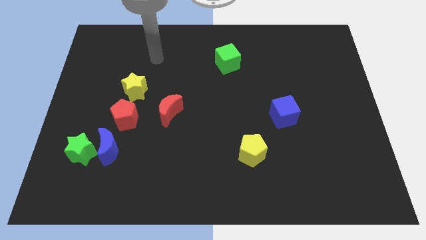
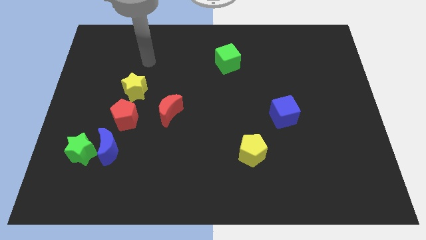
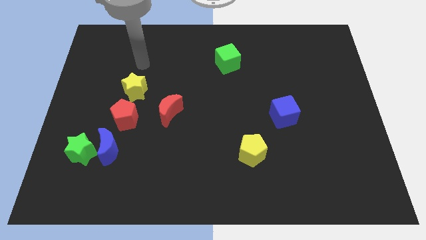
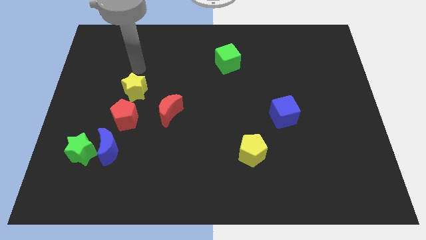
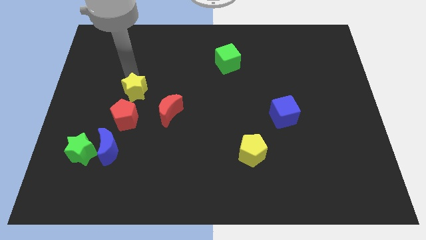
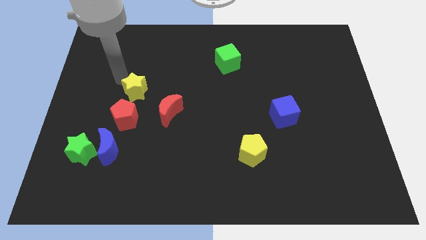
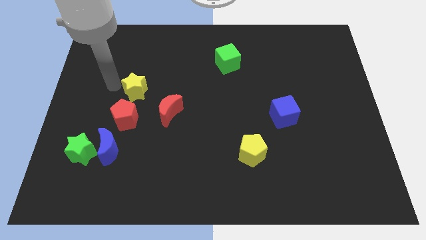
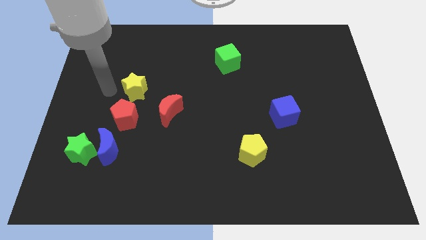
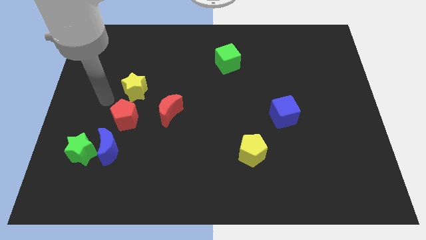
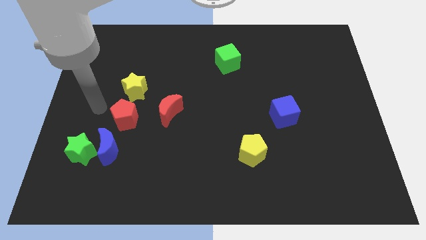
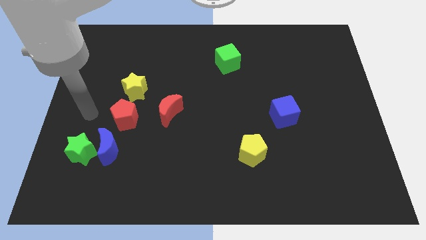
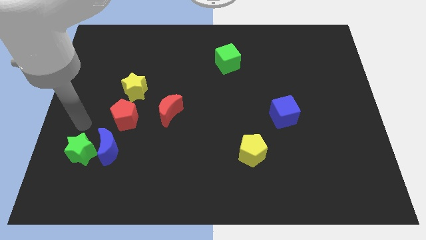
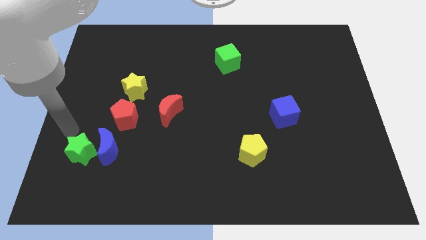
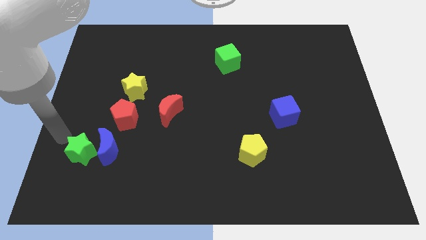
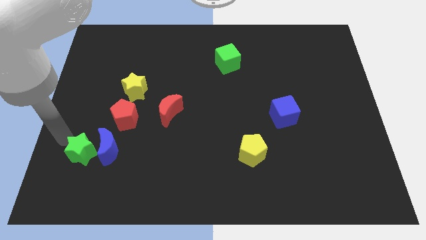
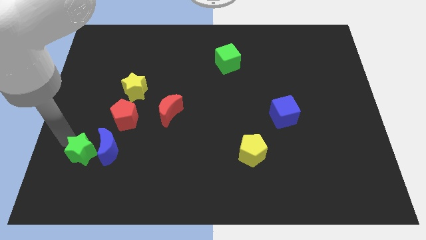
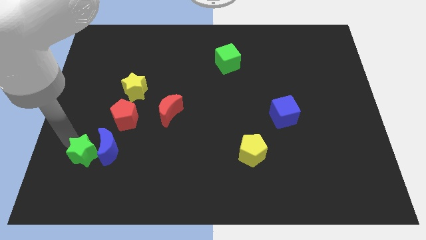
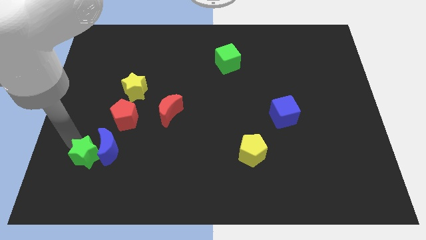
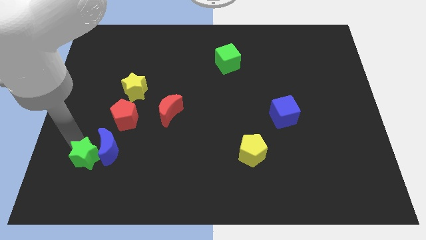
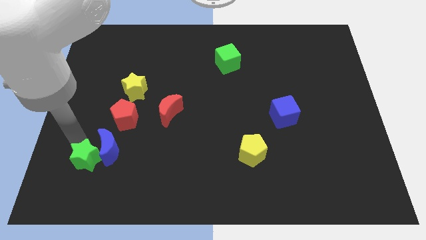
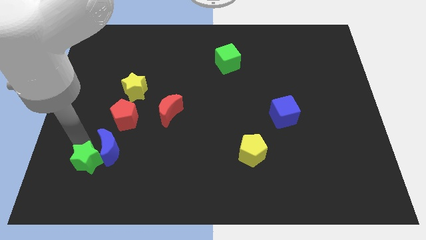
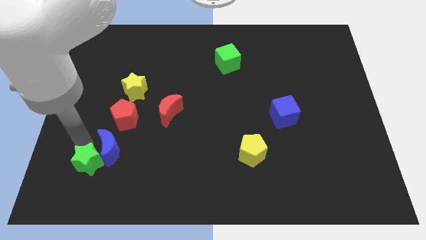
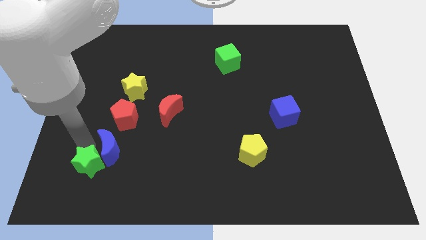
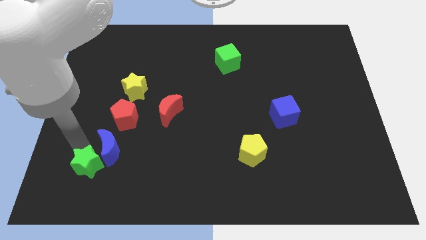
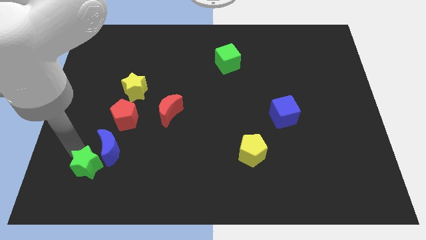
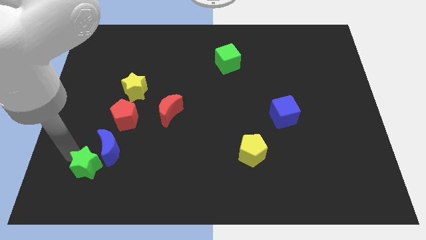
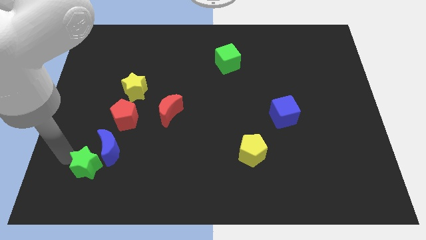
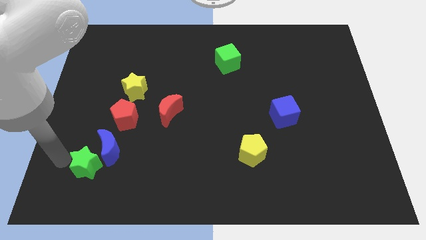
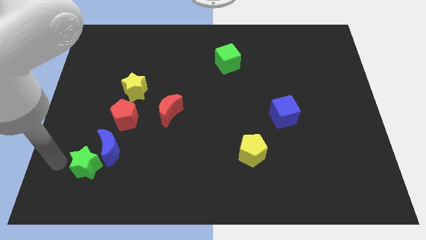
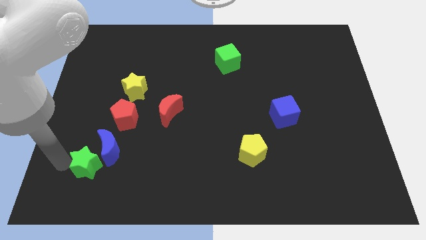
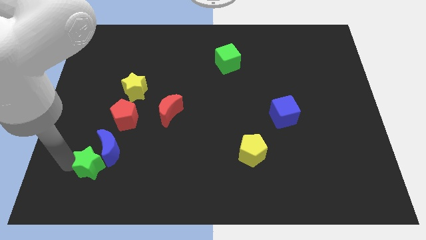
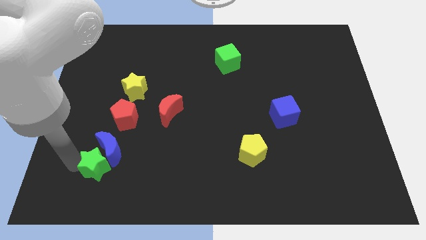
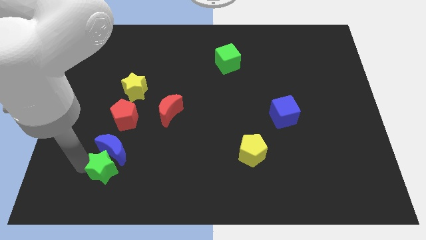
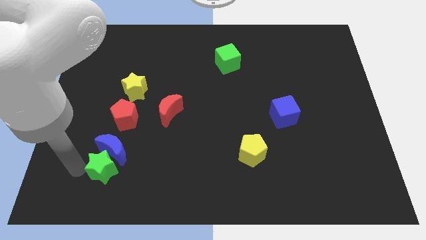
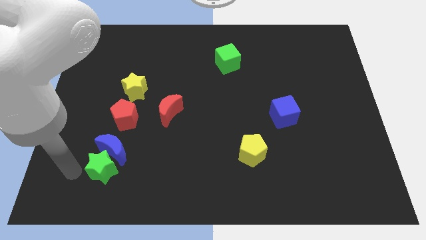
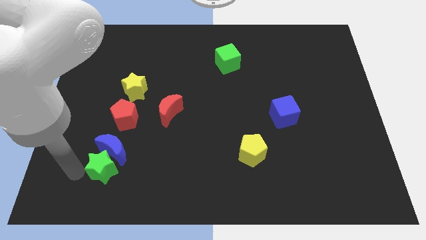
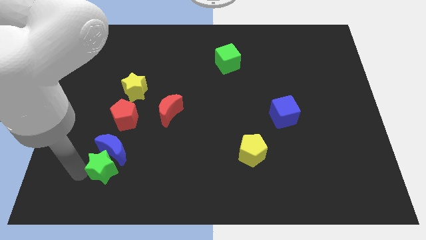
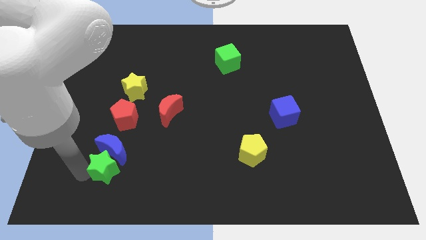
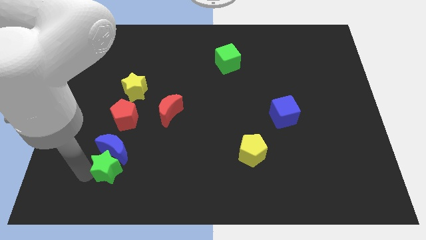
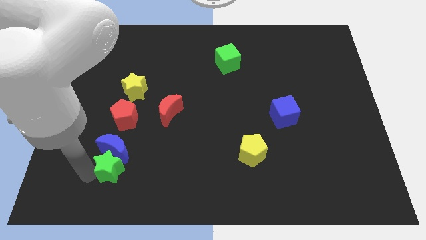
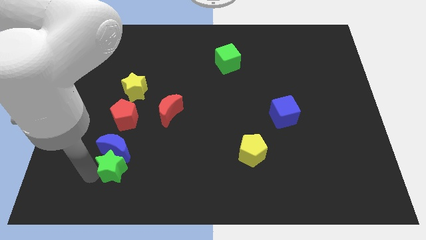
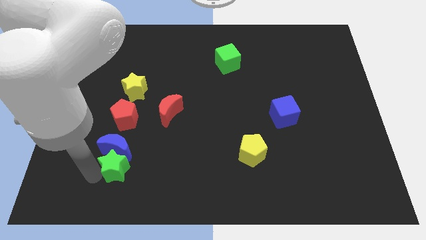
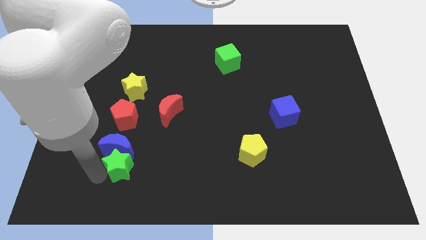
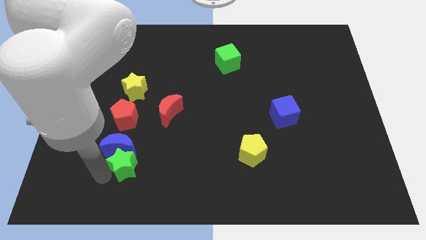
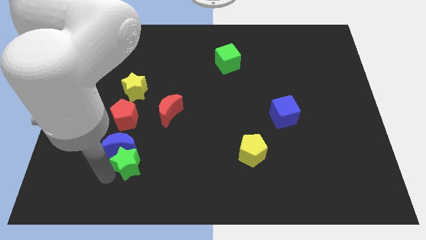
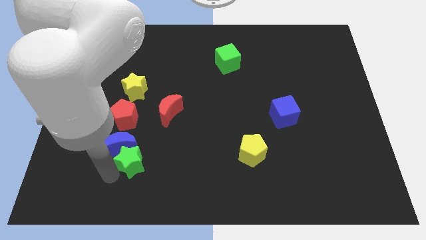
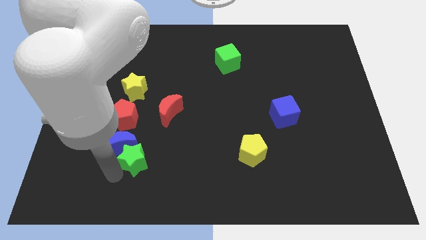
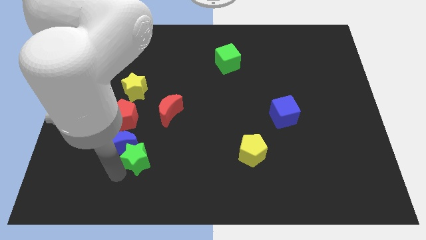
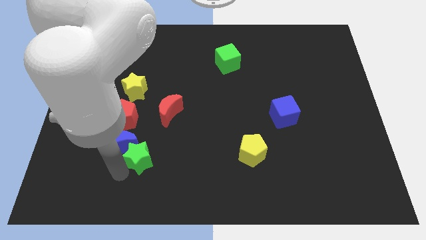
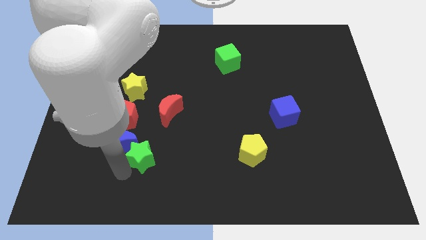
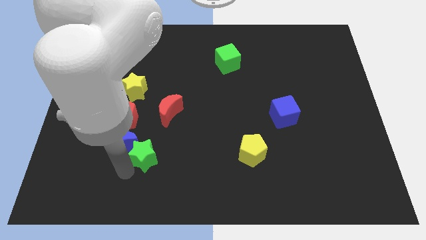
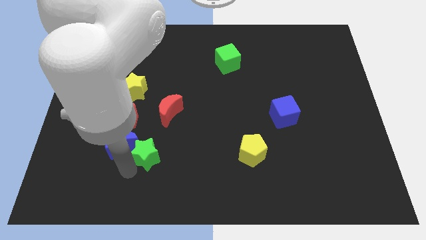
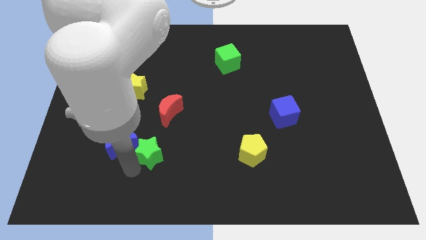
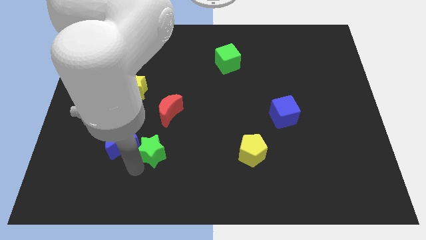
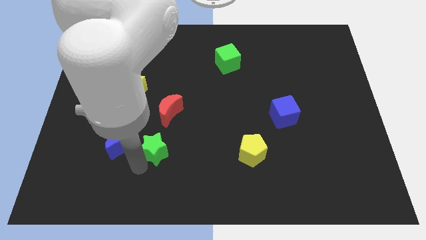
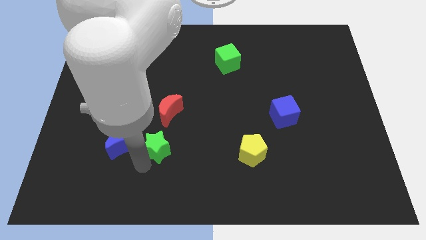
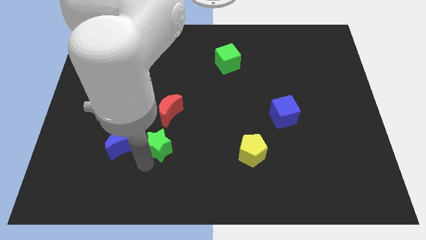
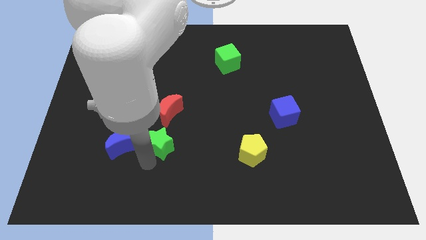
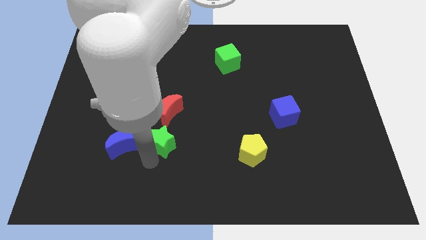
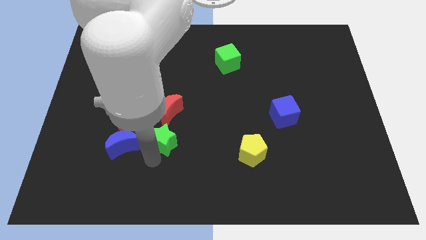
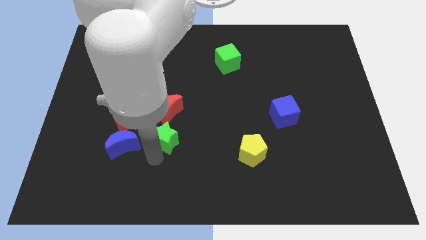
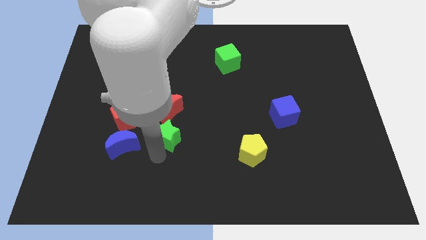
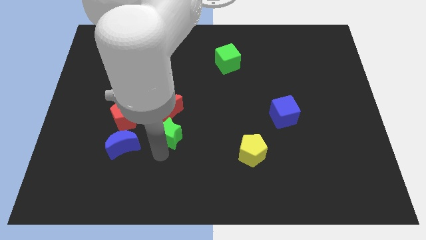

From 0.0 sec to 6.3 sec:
move the green star to the right side of the red pentagon

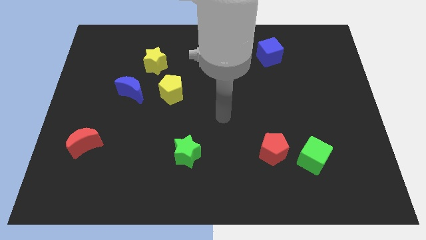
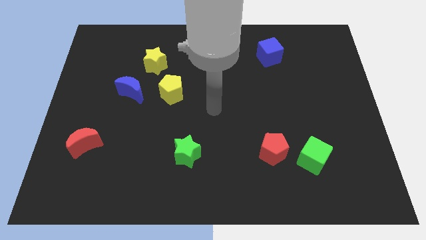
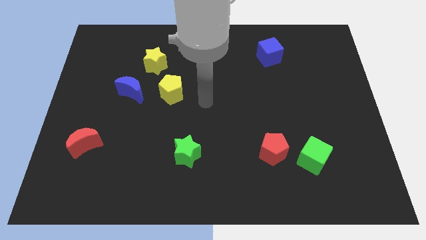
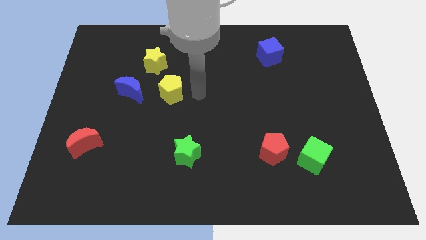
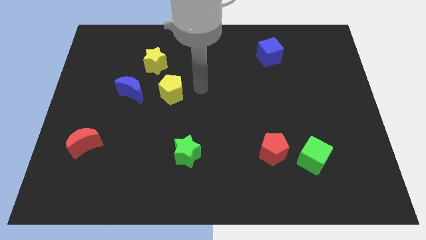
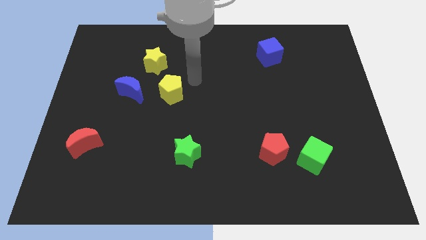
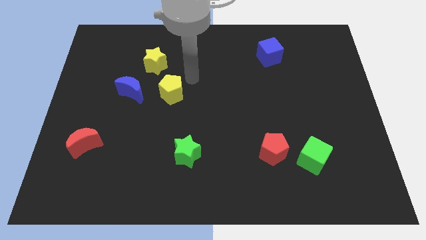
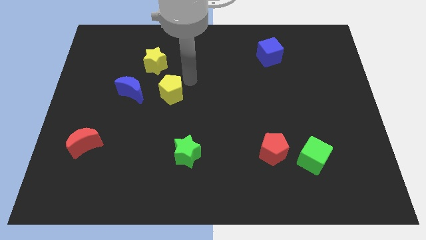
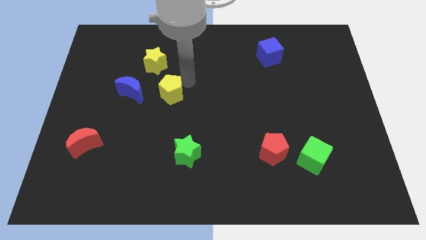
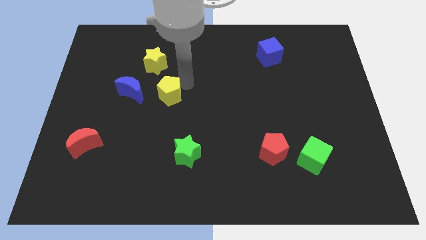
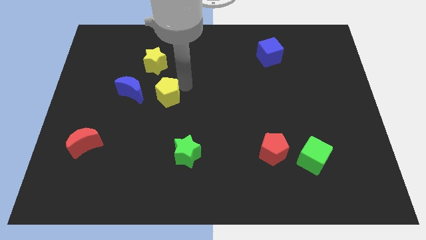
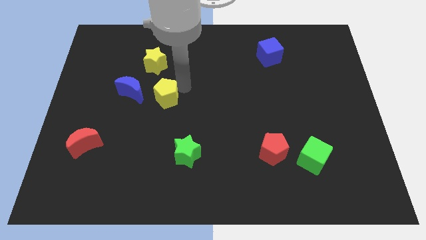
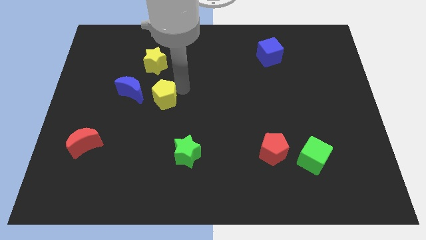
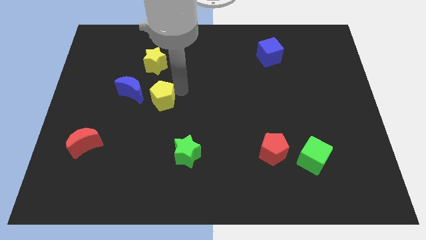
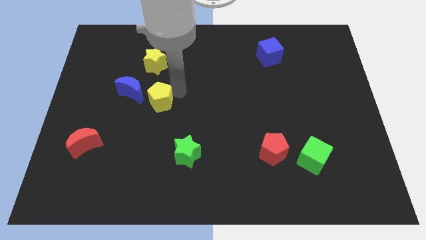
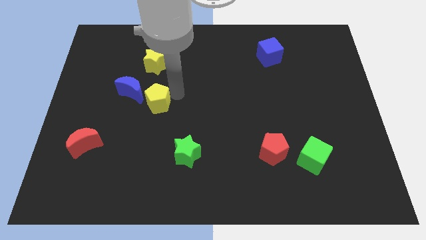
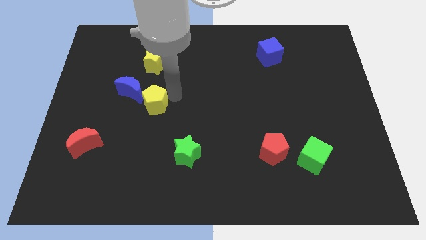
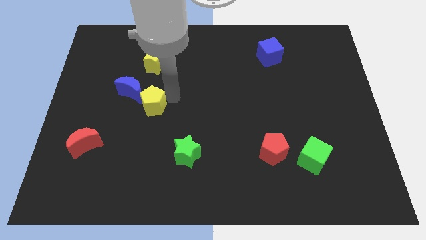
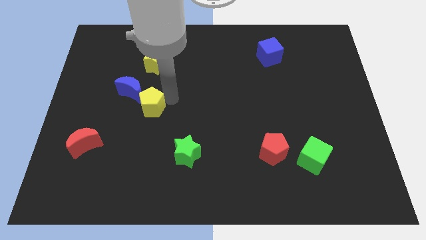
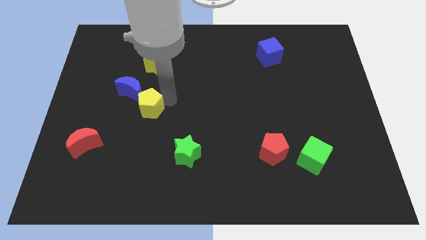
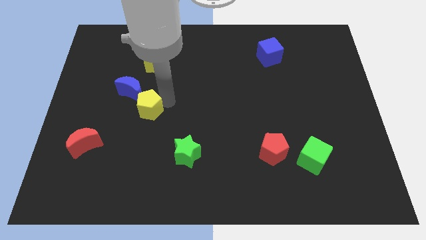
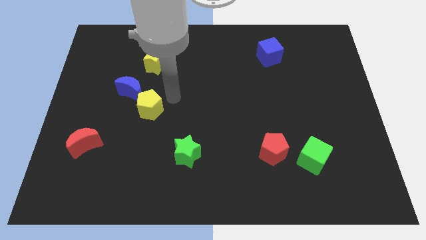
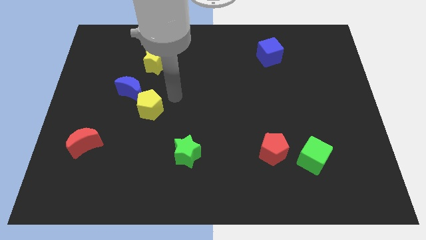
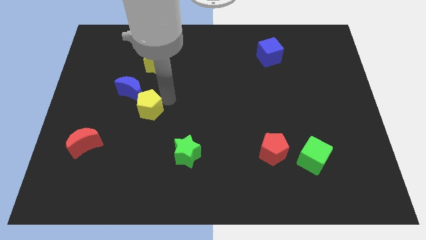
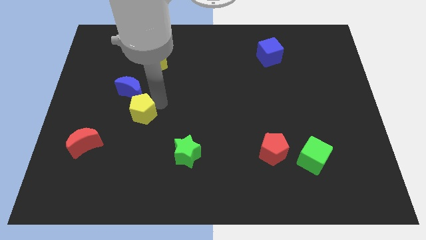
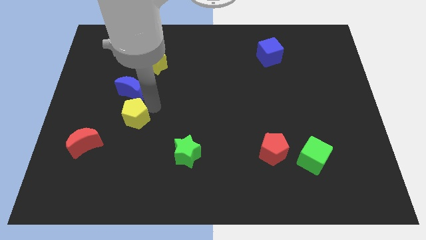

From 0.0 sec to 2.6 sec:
put the yellow pentagon diagonally up and to the right of the red moon
